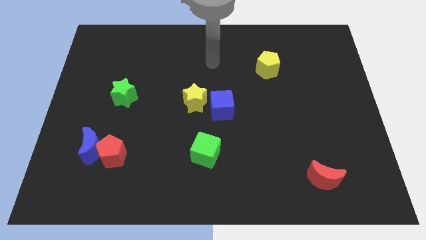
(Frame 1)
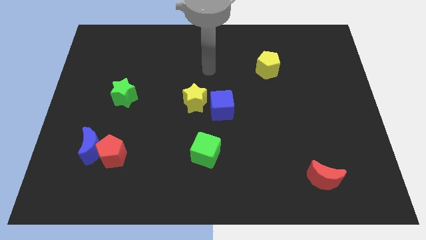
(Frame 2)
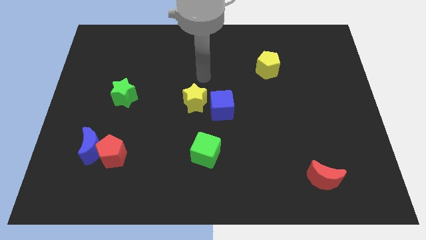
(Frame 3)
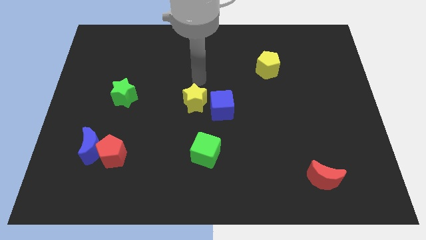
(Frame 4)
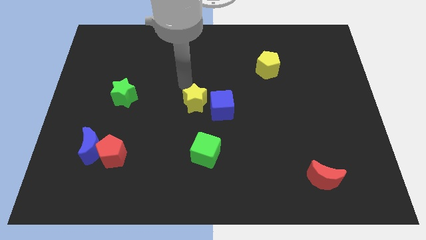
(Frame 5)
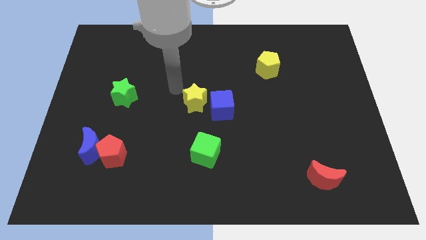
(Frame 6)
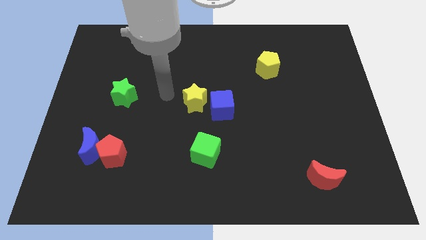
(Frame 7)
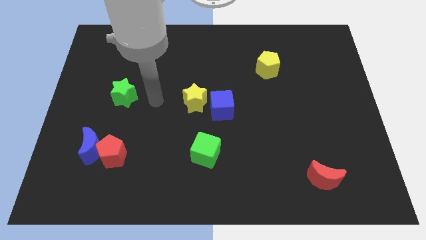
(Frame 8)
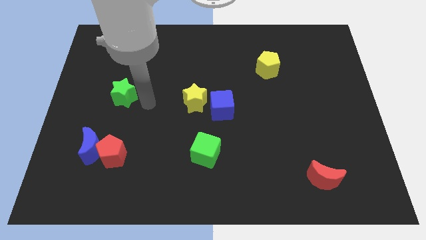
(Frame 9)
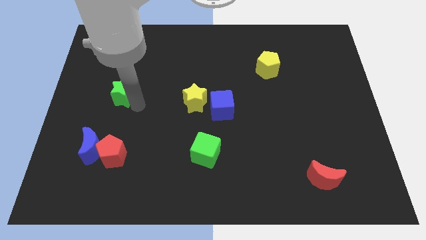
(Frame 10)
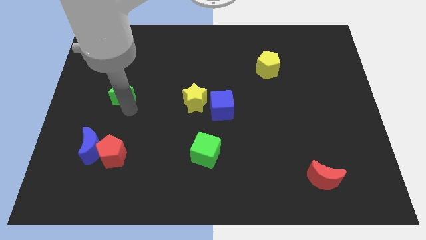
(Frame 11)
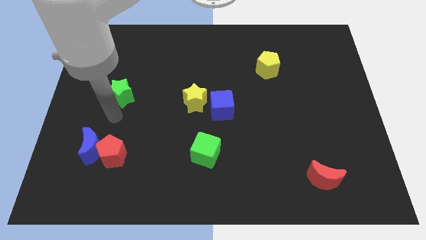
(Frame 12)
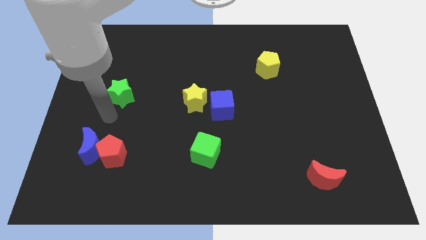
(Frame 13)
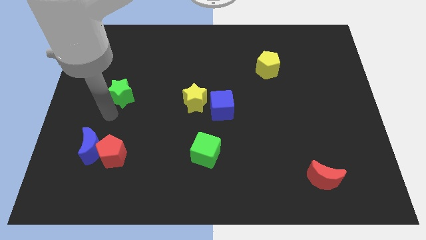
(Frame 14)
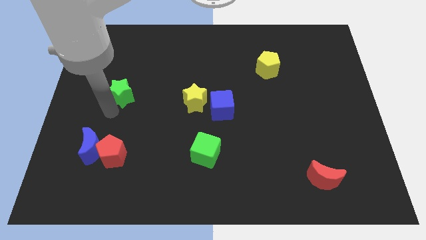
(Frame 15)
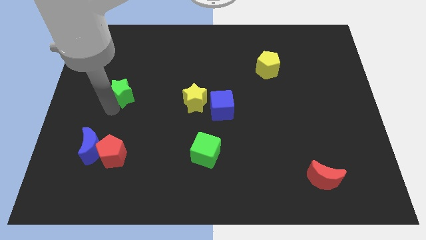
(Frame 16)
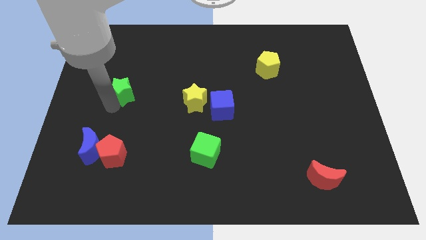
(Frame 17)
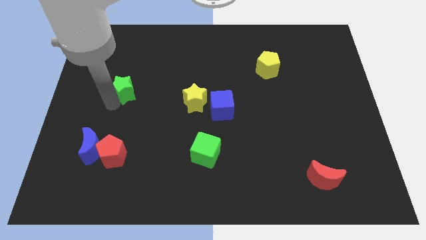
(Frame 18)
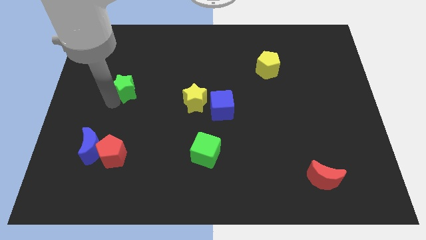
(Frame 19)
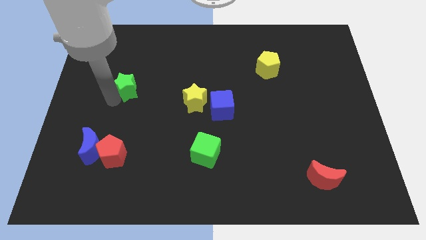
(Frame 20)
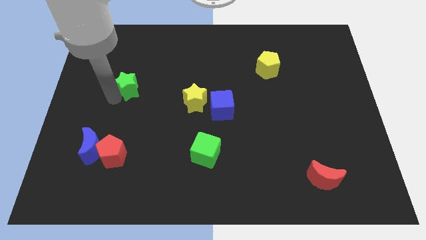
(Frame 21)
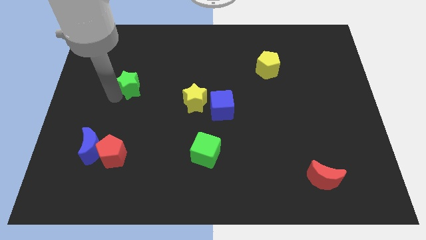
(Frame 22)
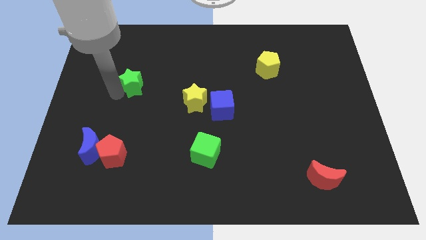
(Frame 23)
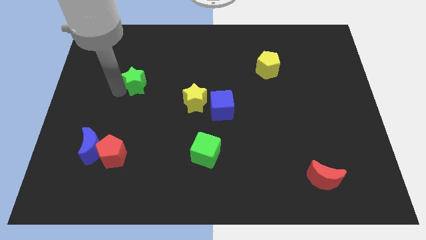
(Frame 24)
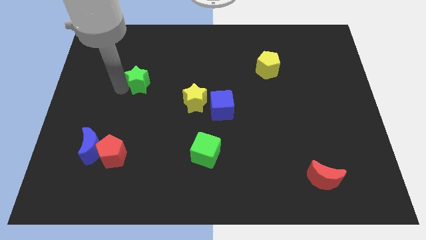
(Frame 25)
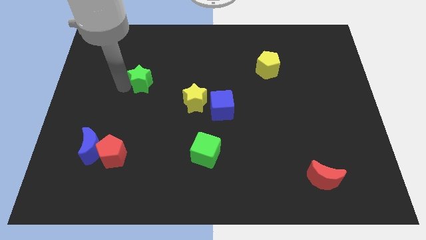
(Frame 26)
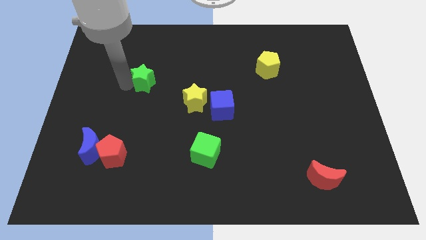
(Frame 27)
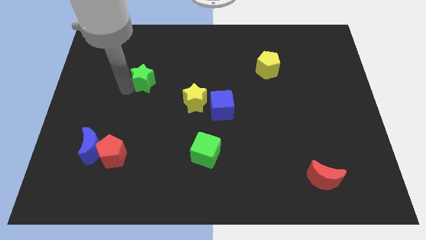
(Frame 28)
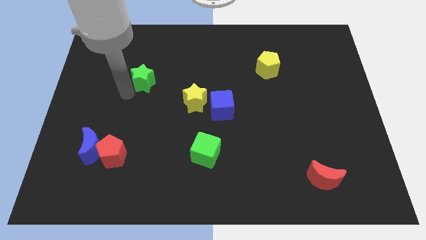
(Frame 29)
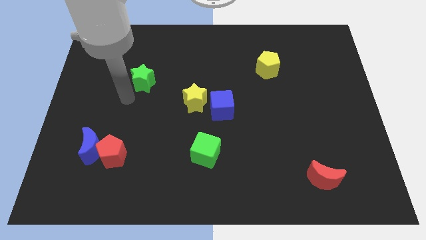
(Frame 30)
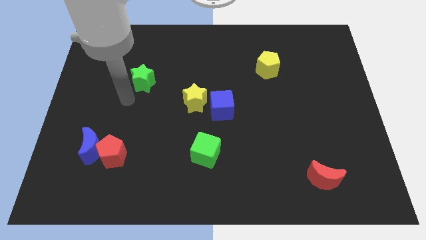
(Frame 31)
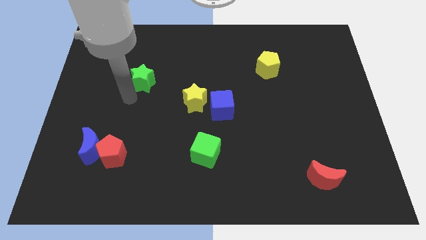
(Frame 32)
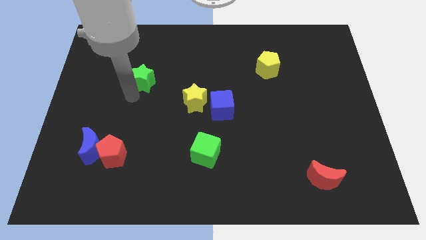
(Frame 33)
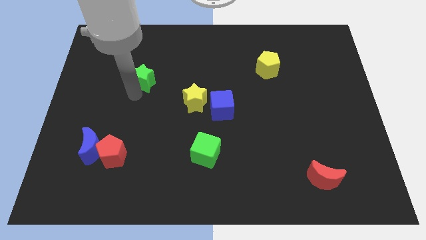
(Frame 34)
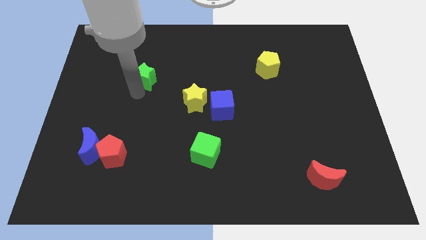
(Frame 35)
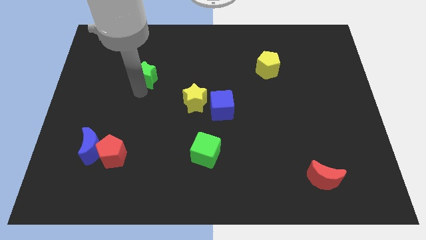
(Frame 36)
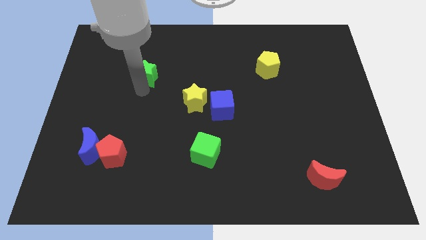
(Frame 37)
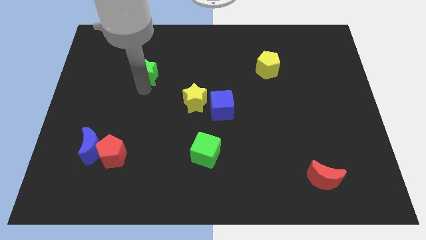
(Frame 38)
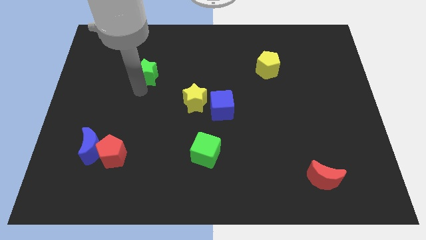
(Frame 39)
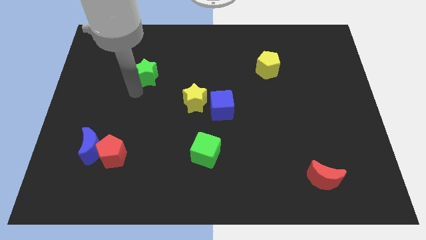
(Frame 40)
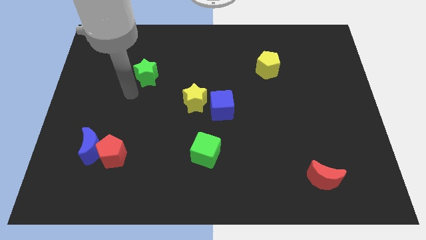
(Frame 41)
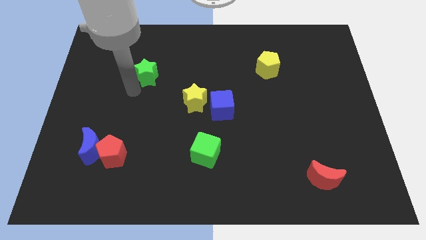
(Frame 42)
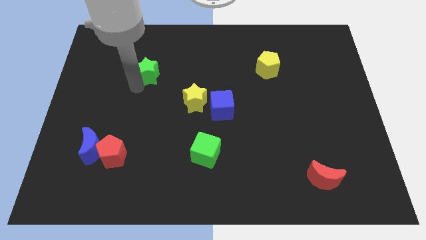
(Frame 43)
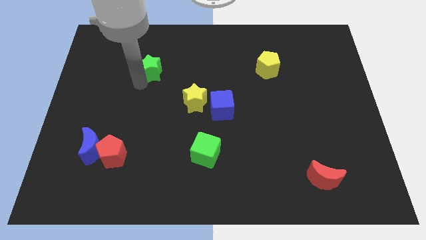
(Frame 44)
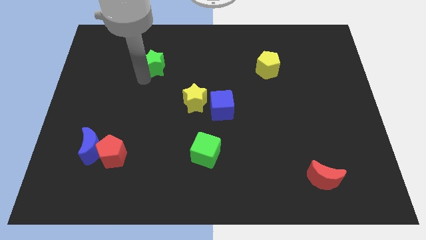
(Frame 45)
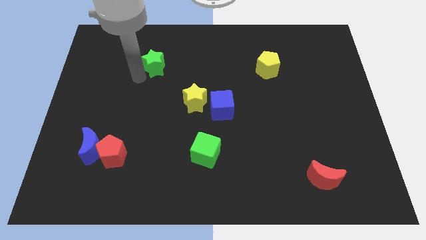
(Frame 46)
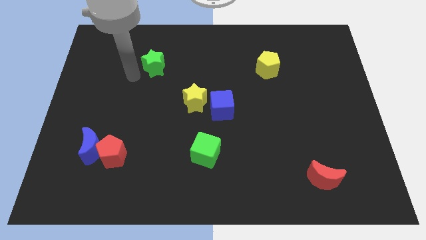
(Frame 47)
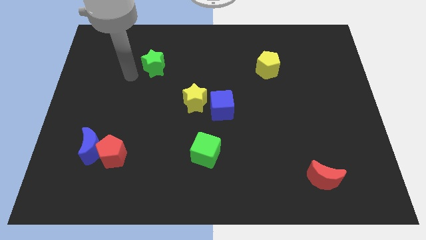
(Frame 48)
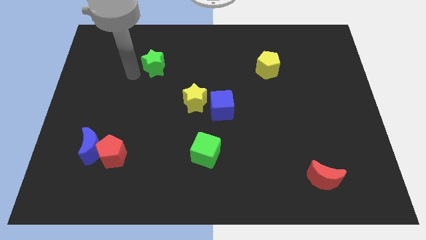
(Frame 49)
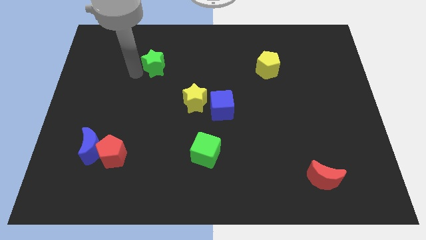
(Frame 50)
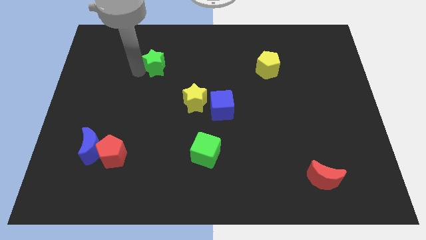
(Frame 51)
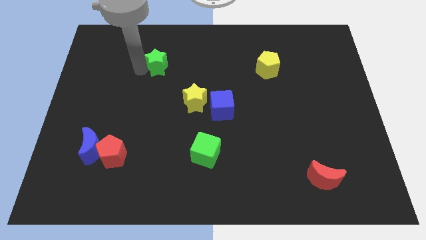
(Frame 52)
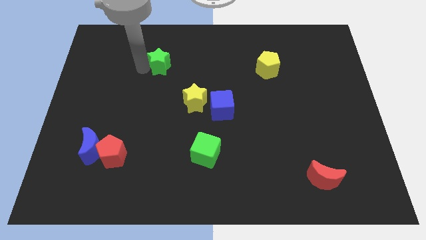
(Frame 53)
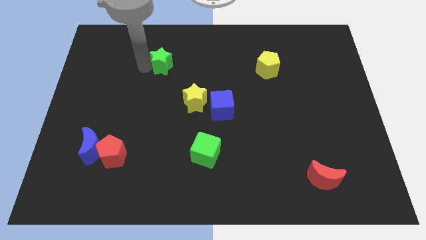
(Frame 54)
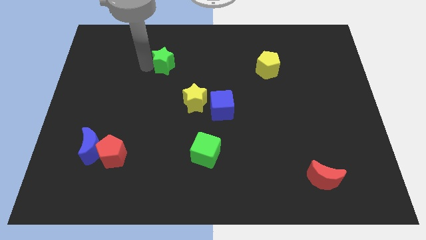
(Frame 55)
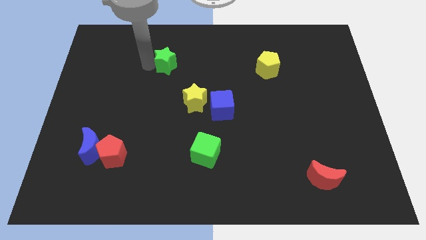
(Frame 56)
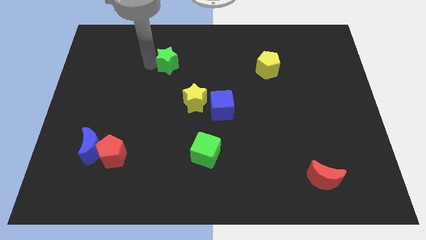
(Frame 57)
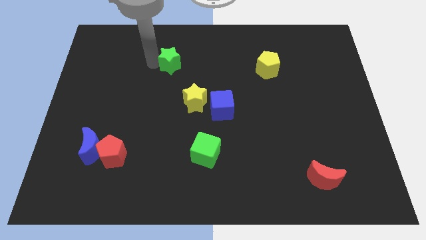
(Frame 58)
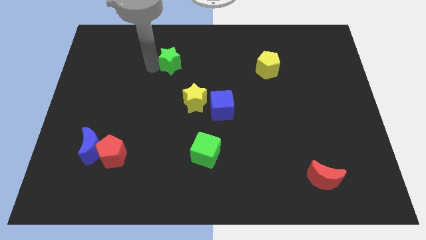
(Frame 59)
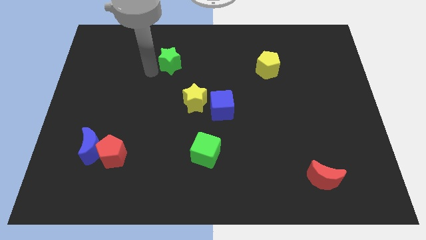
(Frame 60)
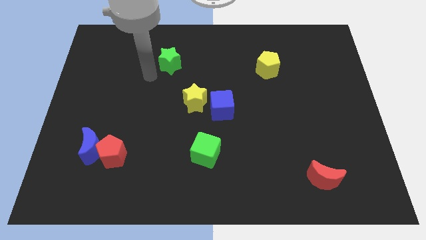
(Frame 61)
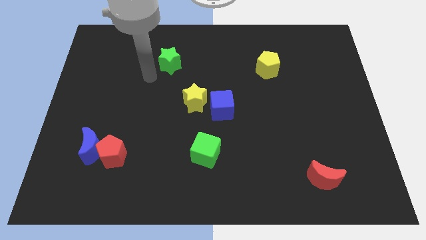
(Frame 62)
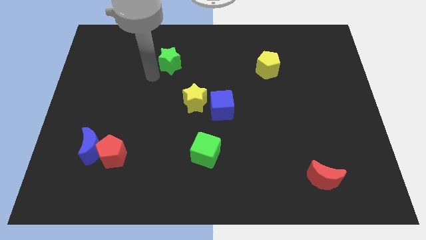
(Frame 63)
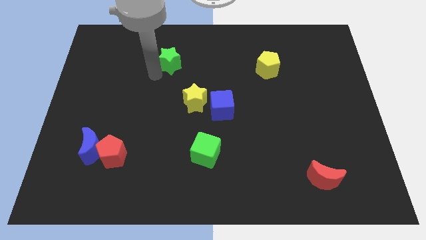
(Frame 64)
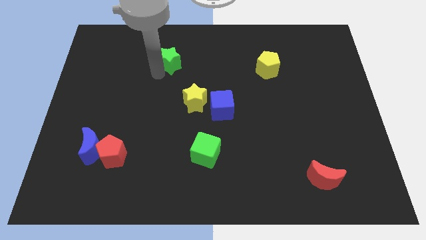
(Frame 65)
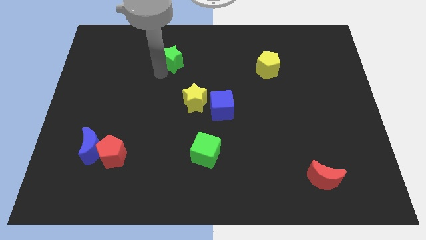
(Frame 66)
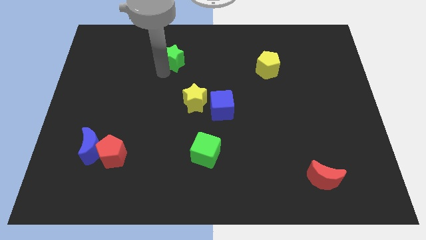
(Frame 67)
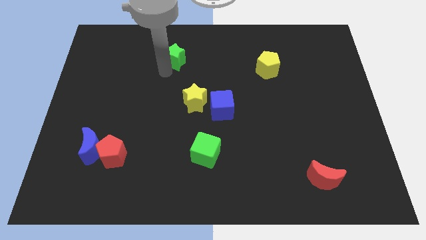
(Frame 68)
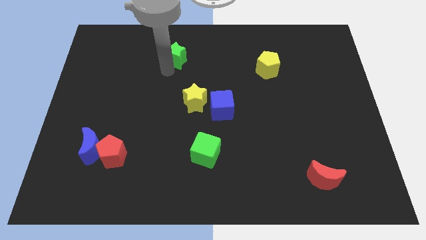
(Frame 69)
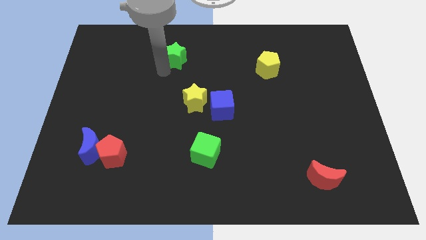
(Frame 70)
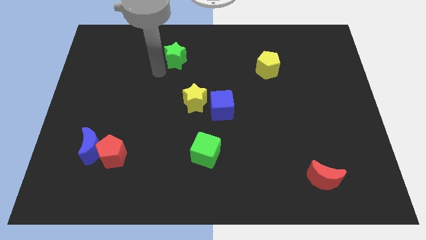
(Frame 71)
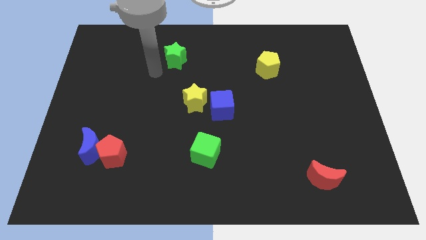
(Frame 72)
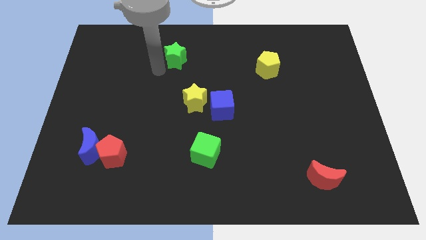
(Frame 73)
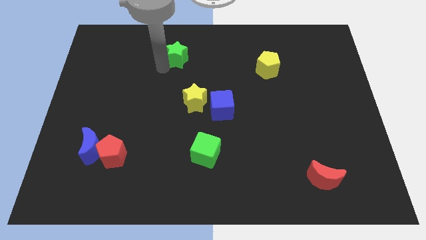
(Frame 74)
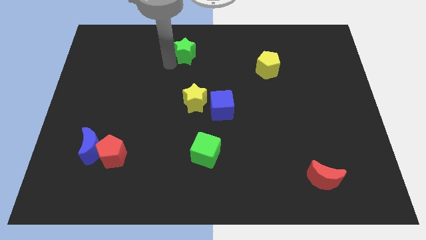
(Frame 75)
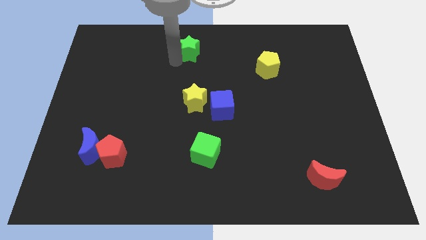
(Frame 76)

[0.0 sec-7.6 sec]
push the green star to the top side
